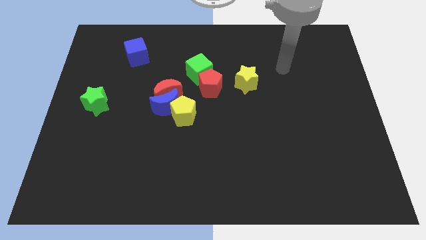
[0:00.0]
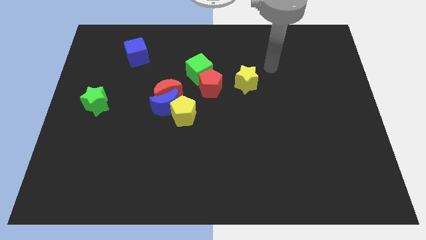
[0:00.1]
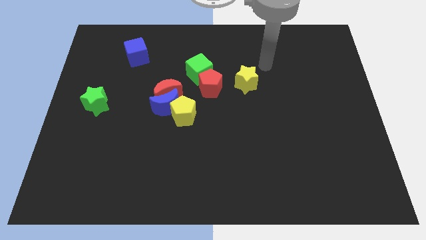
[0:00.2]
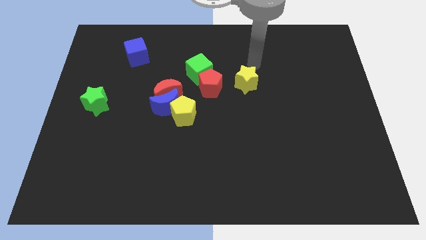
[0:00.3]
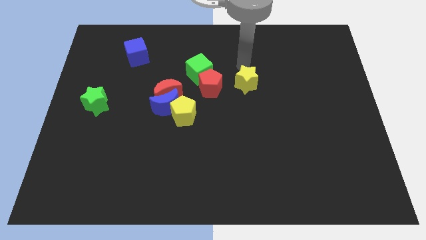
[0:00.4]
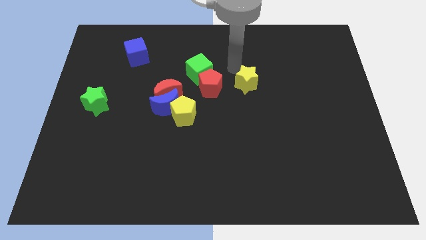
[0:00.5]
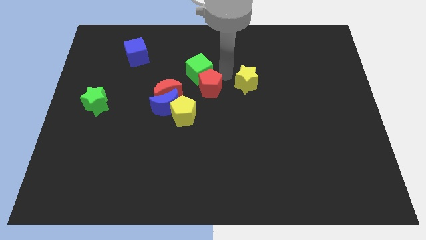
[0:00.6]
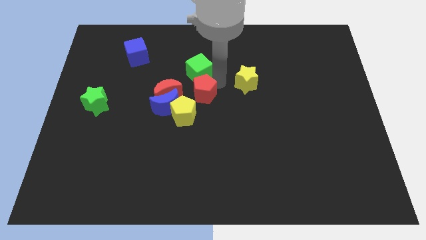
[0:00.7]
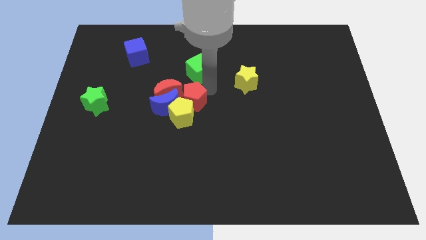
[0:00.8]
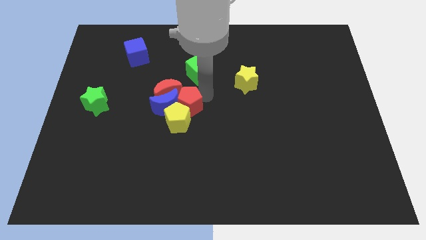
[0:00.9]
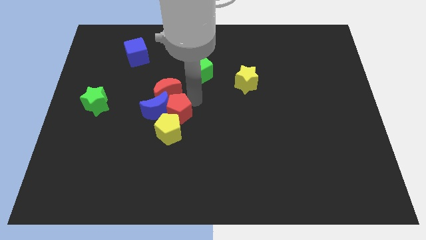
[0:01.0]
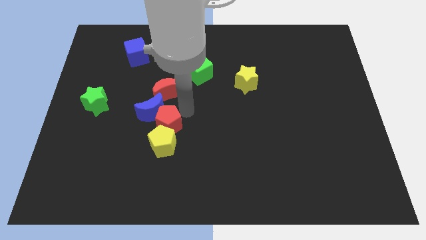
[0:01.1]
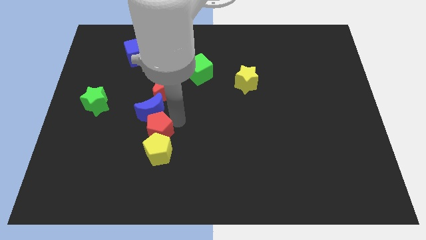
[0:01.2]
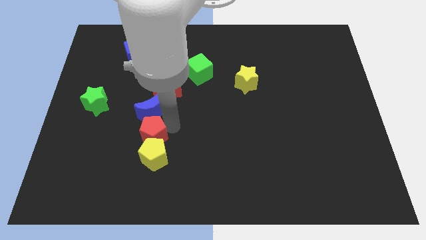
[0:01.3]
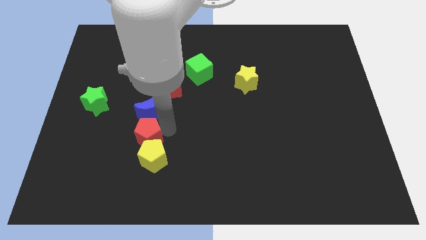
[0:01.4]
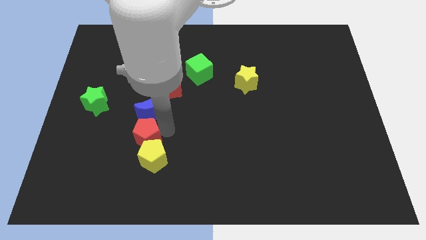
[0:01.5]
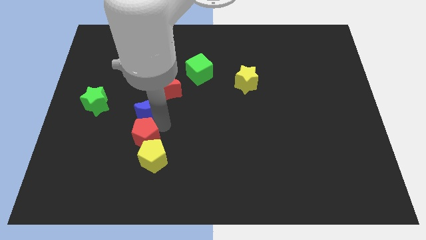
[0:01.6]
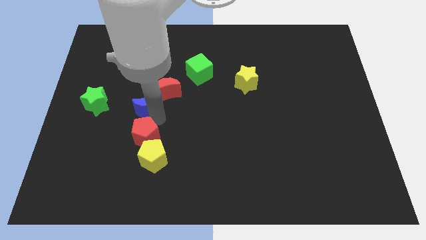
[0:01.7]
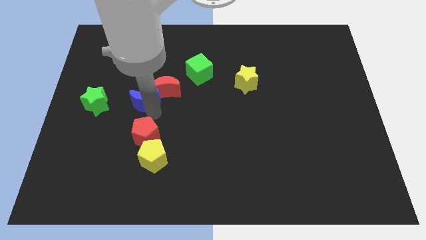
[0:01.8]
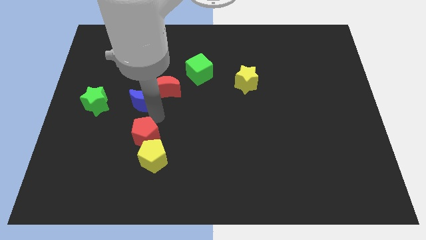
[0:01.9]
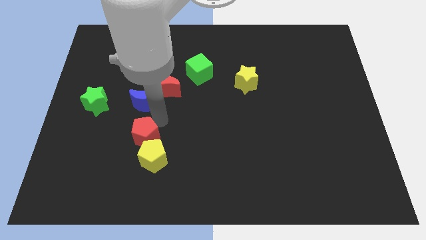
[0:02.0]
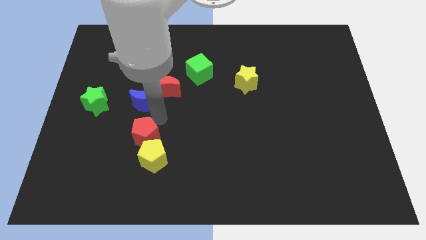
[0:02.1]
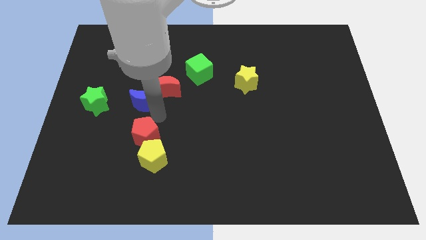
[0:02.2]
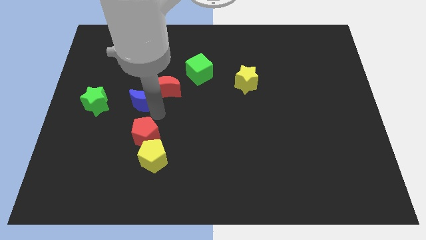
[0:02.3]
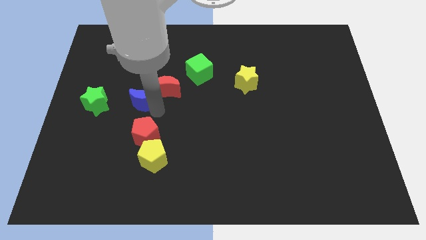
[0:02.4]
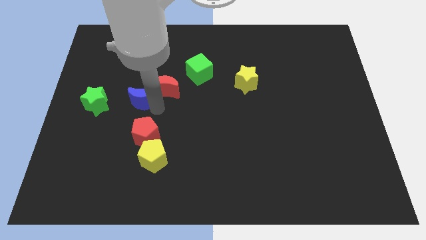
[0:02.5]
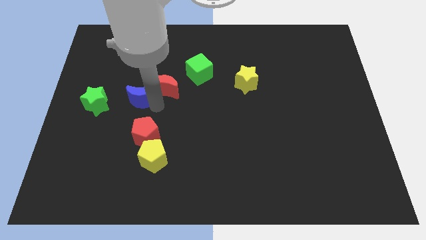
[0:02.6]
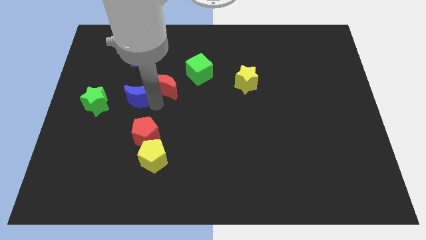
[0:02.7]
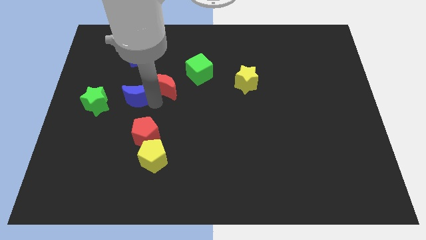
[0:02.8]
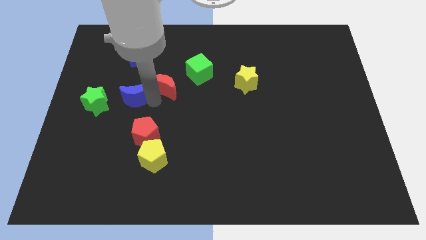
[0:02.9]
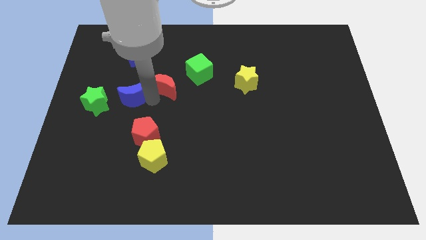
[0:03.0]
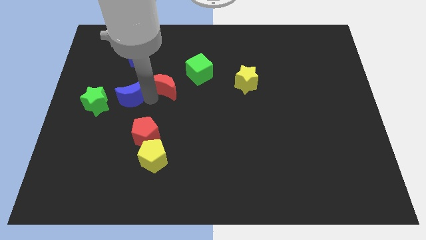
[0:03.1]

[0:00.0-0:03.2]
separate the blue moon from the red moon and yellow pentagon

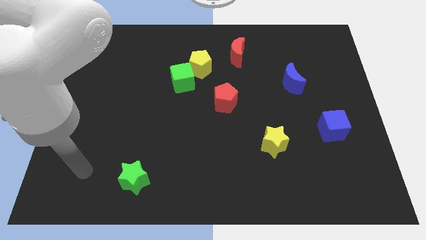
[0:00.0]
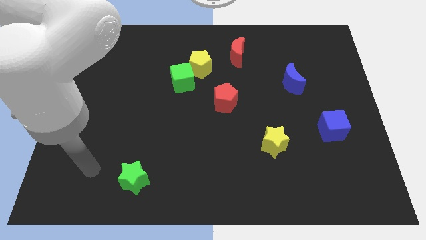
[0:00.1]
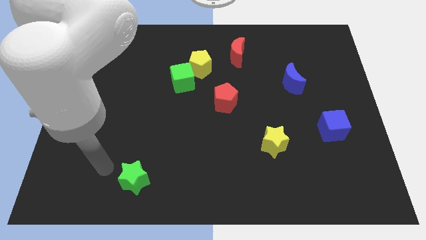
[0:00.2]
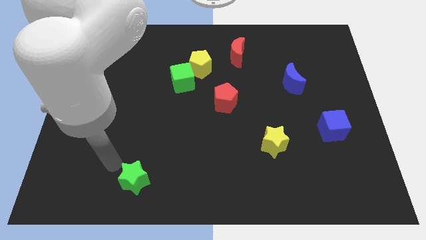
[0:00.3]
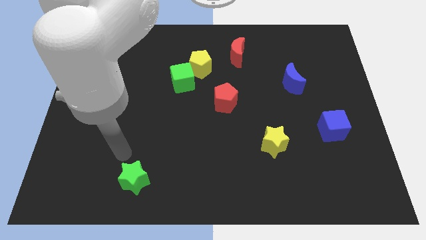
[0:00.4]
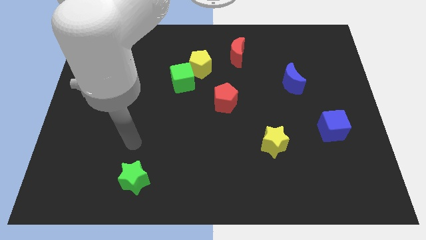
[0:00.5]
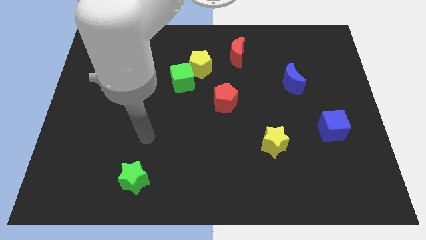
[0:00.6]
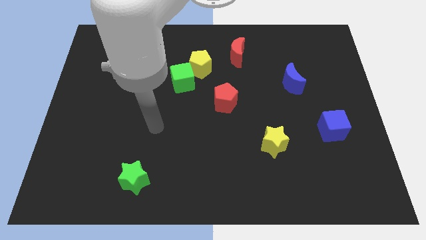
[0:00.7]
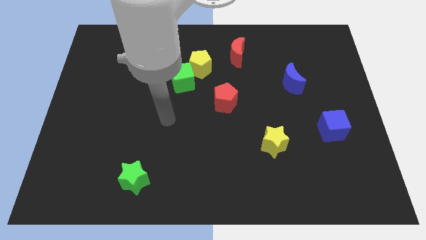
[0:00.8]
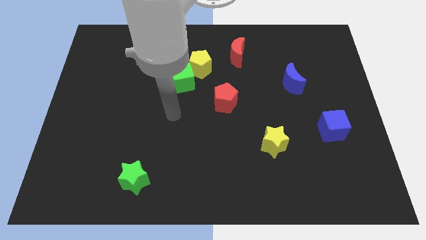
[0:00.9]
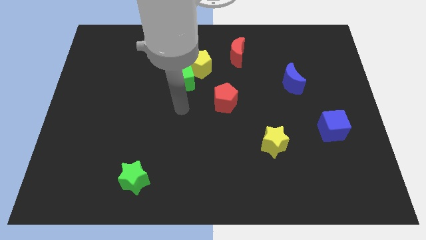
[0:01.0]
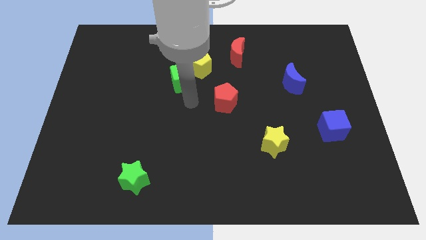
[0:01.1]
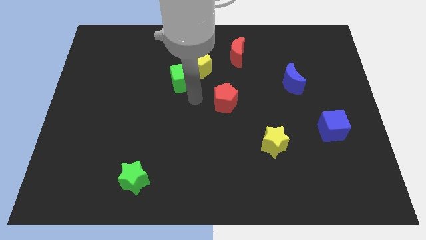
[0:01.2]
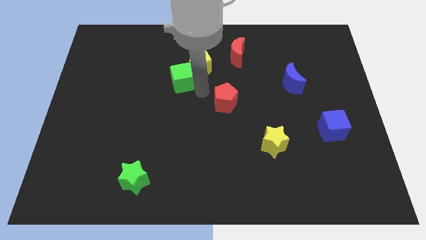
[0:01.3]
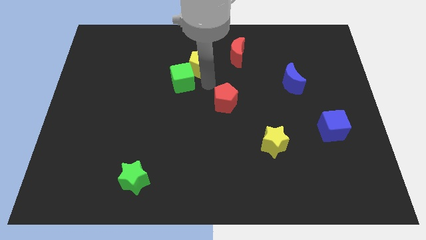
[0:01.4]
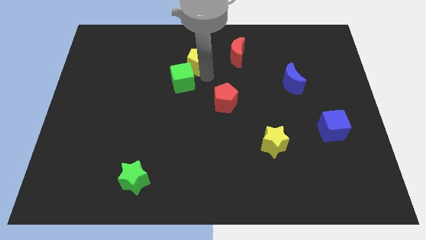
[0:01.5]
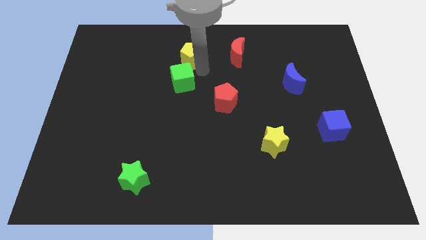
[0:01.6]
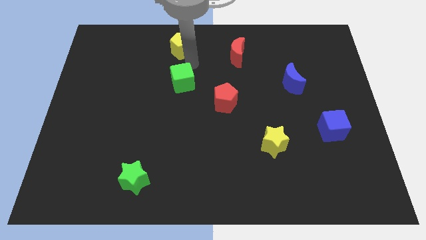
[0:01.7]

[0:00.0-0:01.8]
separate the green cube from the yellow pentagon

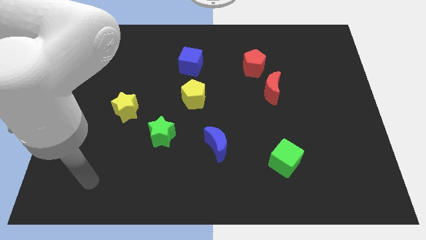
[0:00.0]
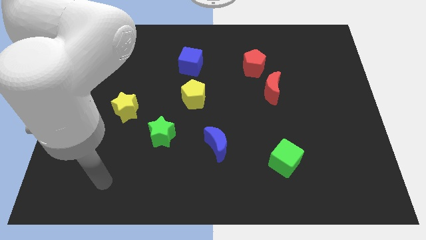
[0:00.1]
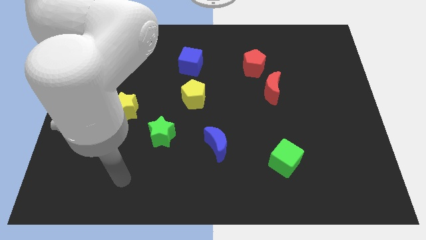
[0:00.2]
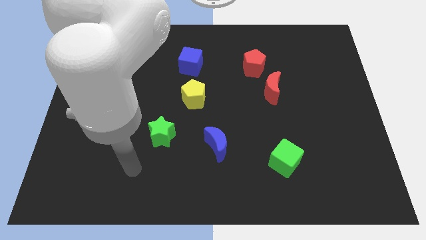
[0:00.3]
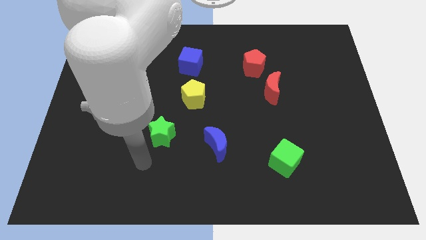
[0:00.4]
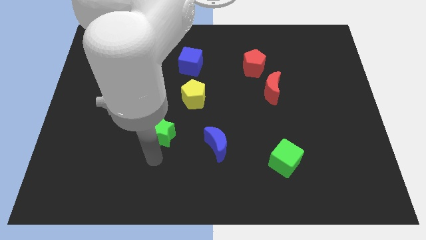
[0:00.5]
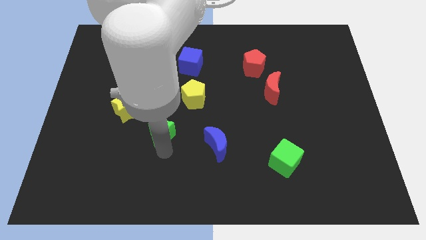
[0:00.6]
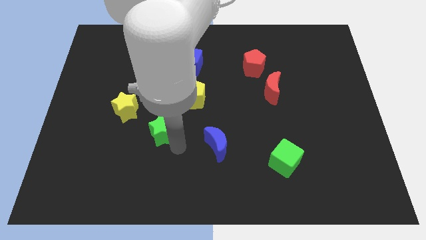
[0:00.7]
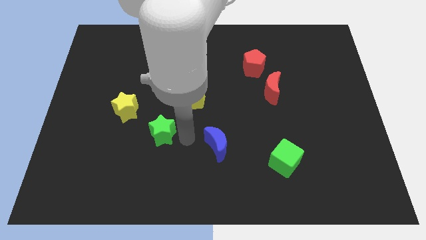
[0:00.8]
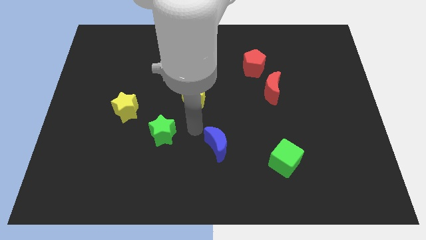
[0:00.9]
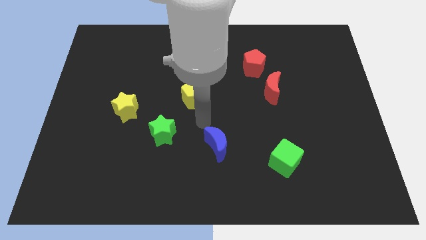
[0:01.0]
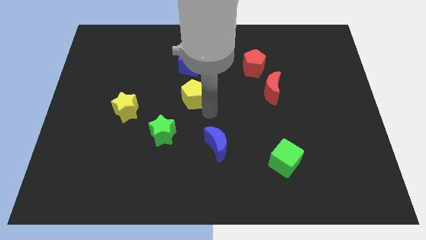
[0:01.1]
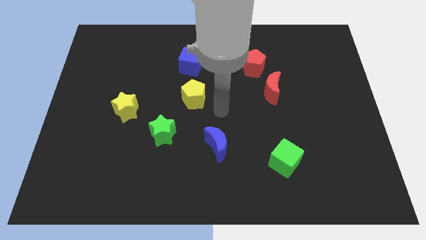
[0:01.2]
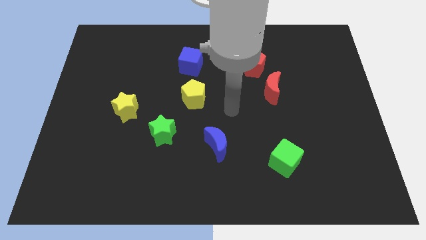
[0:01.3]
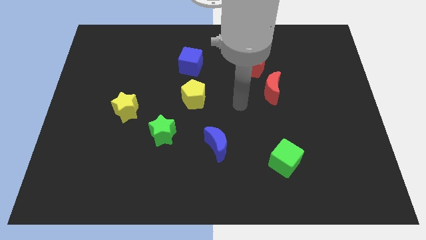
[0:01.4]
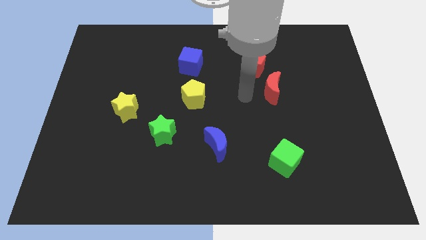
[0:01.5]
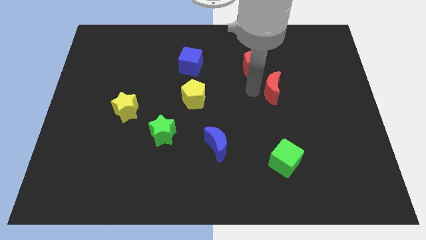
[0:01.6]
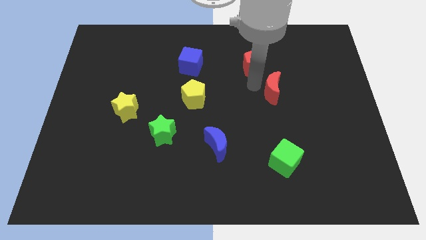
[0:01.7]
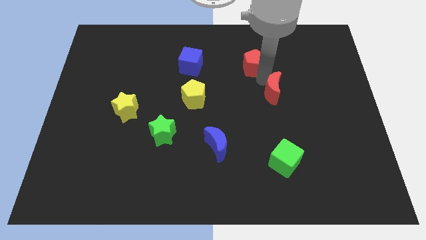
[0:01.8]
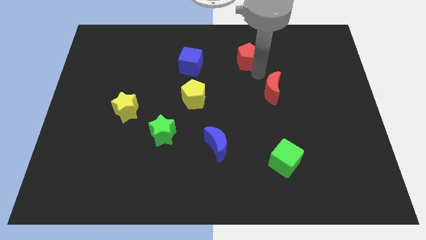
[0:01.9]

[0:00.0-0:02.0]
separate the red moon from the red pentagon

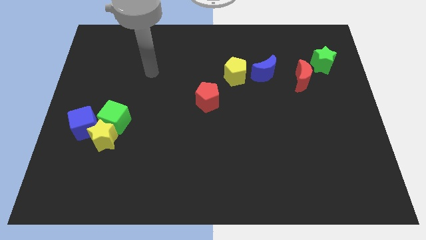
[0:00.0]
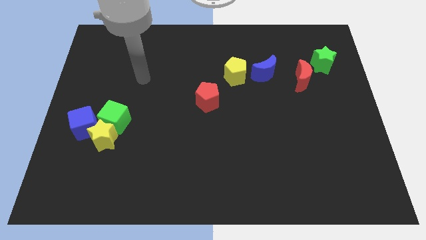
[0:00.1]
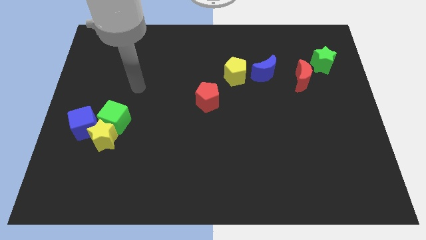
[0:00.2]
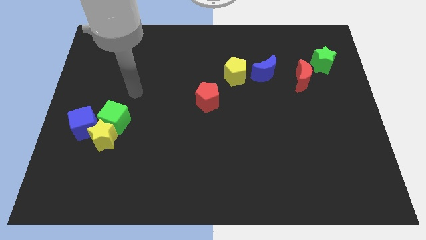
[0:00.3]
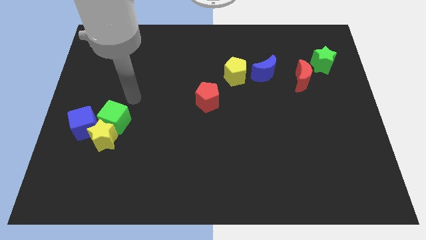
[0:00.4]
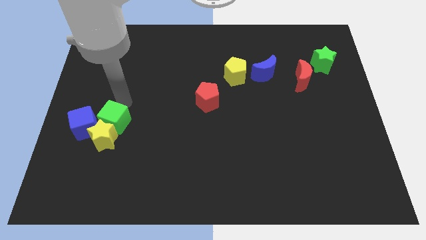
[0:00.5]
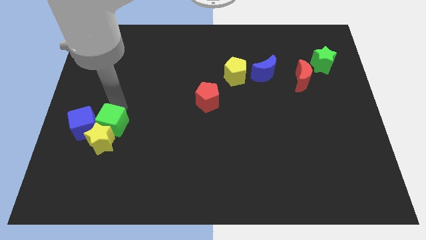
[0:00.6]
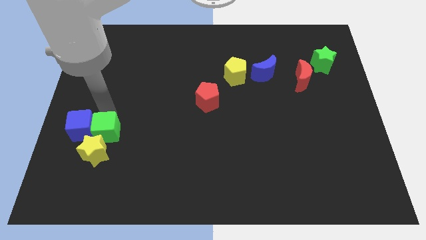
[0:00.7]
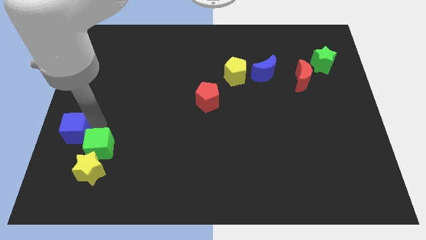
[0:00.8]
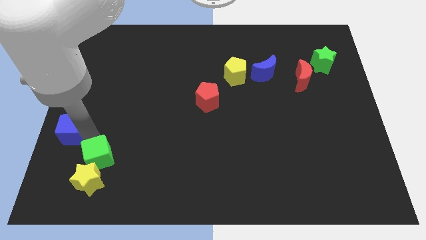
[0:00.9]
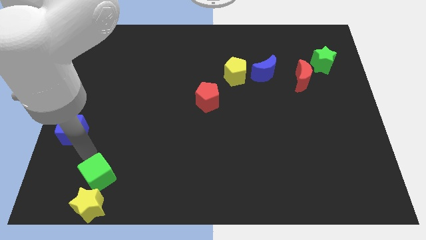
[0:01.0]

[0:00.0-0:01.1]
pull the yellow star apart from the green cube and blue cube

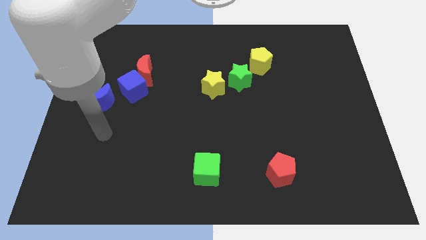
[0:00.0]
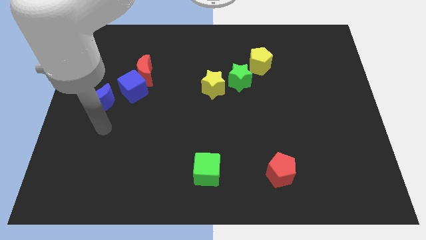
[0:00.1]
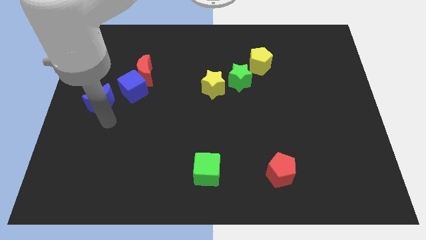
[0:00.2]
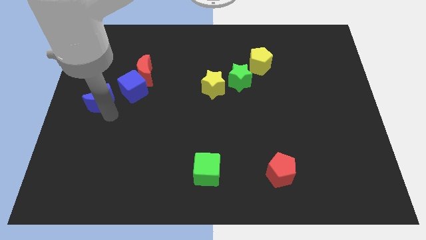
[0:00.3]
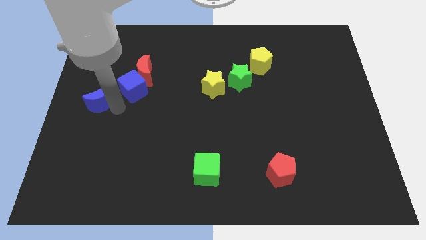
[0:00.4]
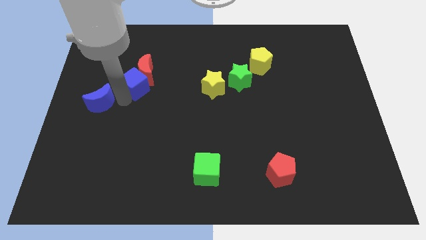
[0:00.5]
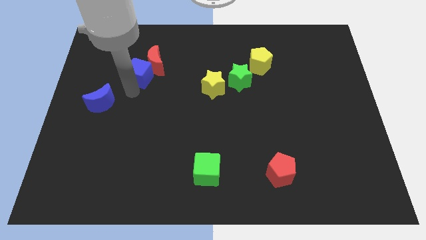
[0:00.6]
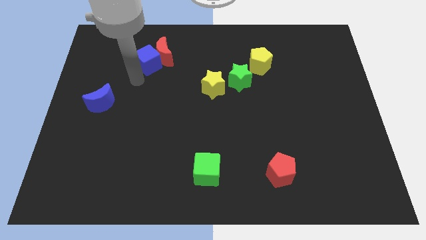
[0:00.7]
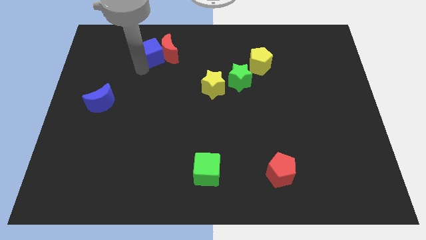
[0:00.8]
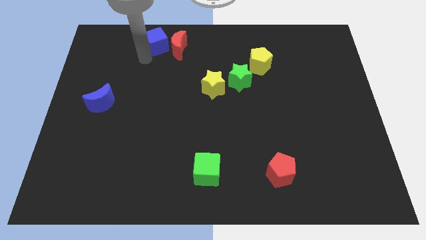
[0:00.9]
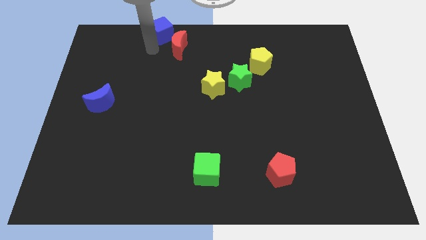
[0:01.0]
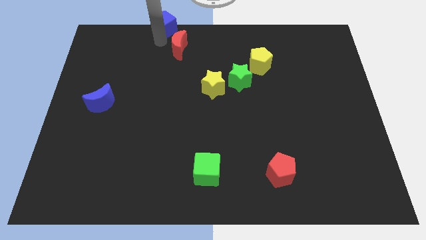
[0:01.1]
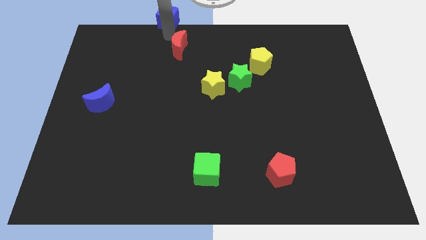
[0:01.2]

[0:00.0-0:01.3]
move the red moon away from the blue cube
